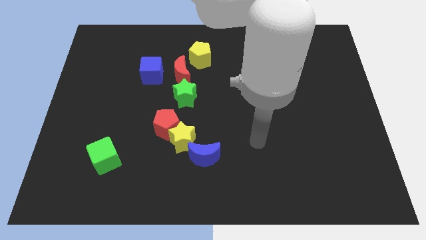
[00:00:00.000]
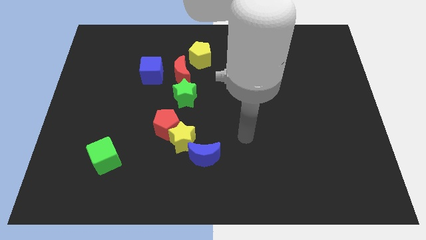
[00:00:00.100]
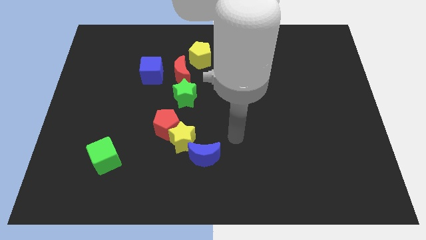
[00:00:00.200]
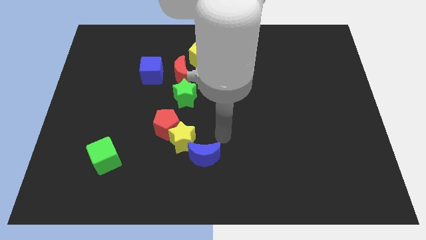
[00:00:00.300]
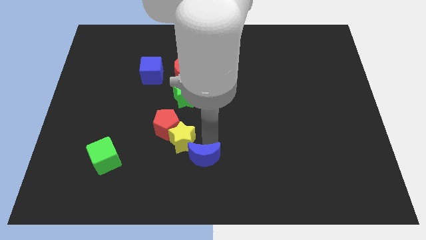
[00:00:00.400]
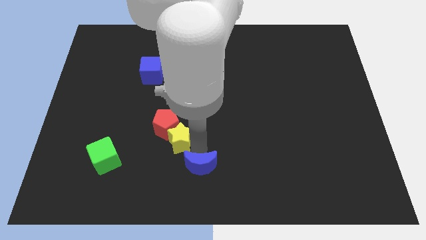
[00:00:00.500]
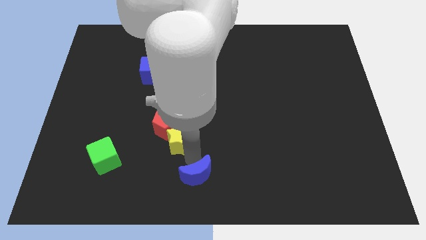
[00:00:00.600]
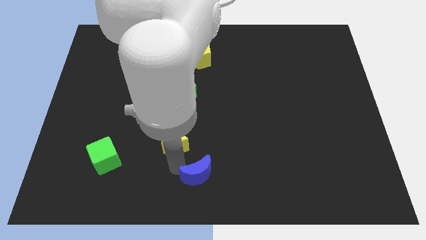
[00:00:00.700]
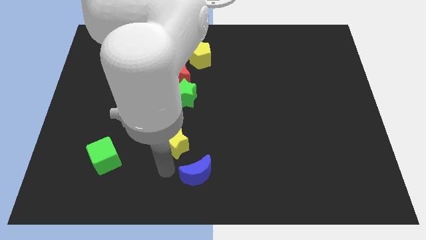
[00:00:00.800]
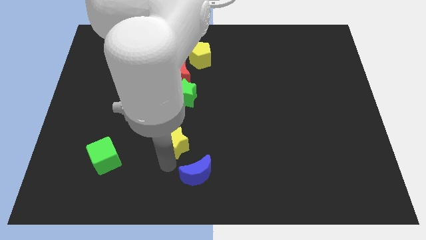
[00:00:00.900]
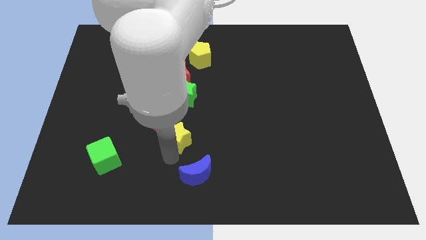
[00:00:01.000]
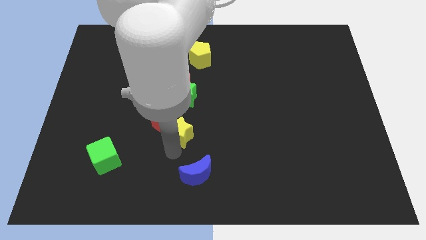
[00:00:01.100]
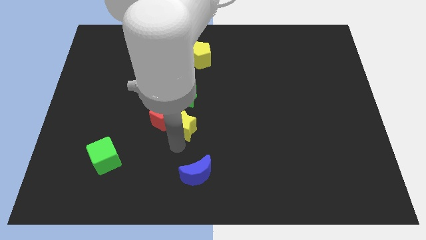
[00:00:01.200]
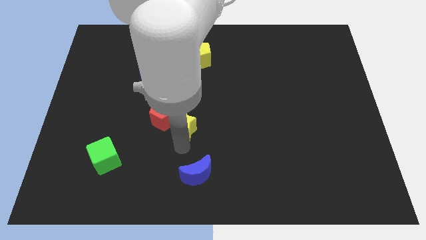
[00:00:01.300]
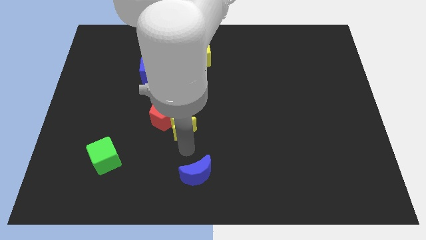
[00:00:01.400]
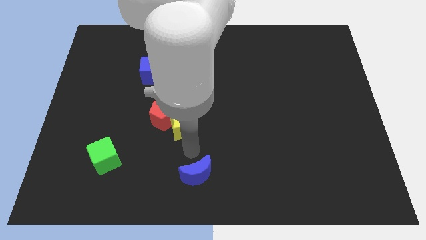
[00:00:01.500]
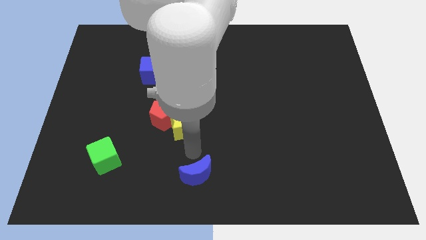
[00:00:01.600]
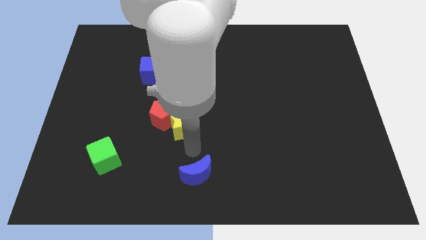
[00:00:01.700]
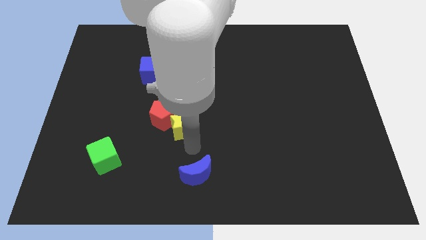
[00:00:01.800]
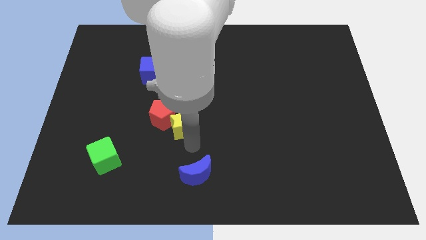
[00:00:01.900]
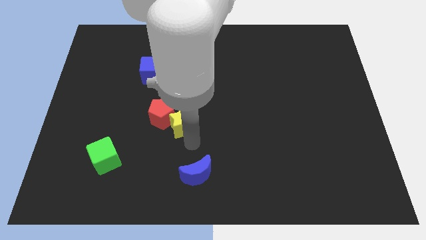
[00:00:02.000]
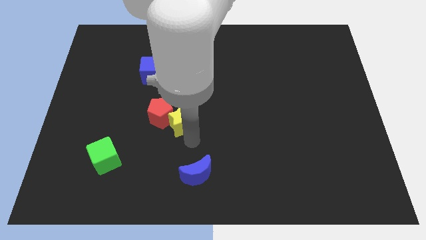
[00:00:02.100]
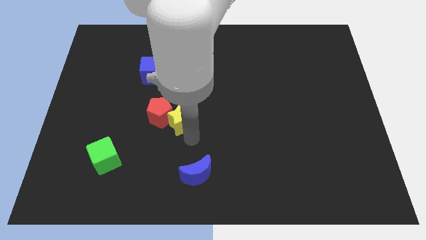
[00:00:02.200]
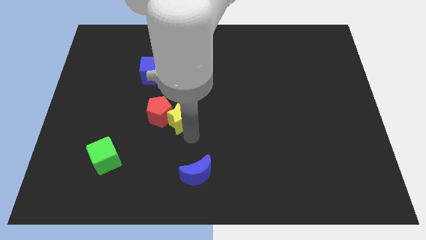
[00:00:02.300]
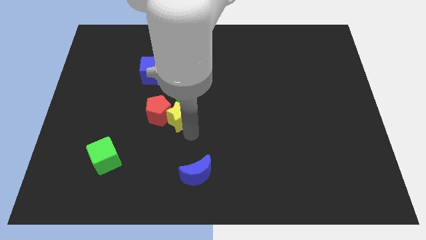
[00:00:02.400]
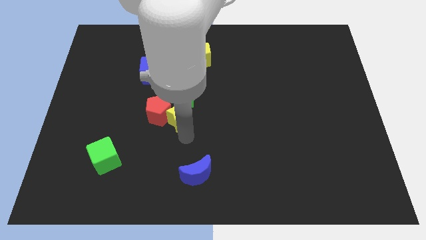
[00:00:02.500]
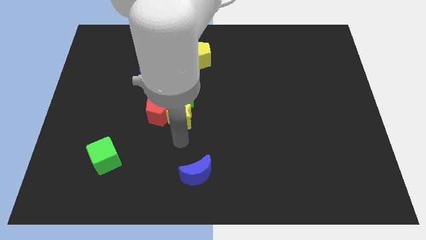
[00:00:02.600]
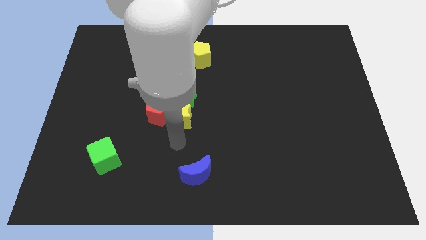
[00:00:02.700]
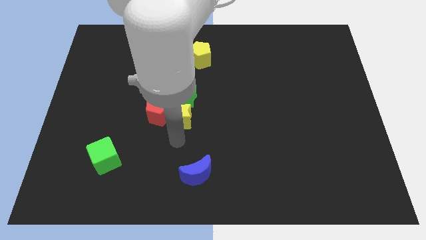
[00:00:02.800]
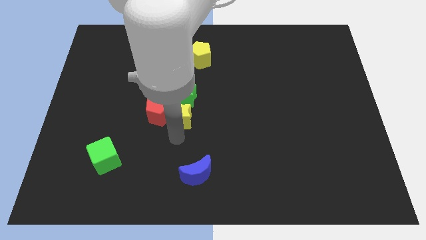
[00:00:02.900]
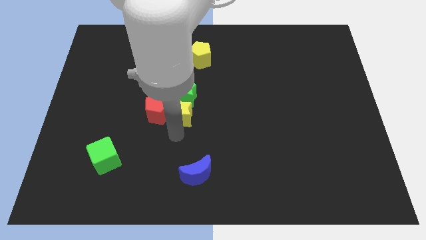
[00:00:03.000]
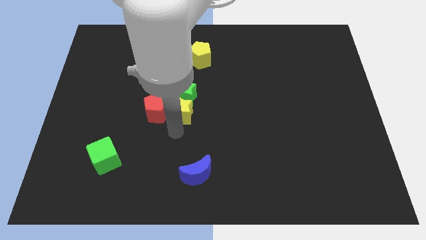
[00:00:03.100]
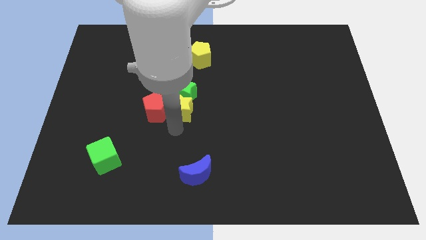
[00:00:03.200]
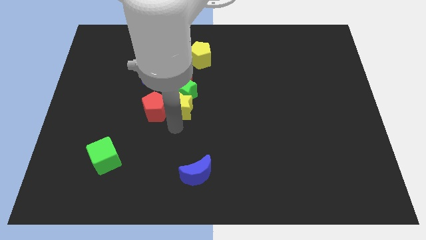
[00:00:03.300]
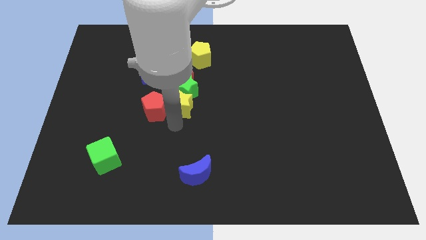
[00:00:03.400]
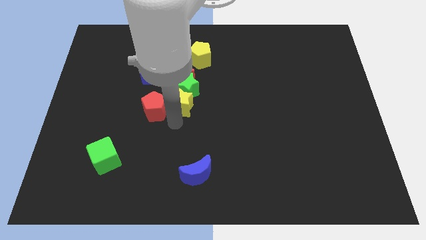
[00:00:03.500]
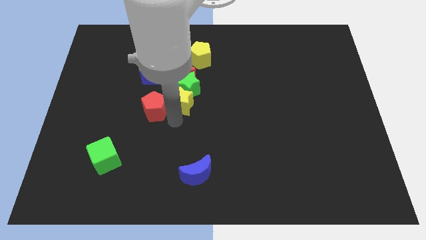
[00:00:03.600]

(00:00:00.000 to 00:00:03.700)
separate the yellow star from the red pentagon and blue moon

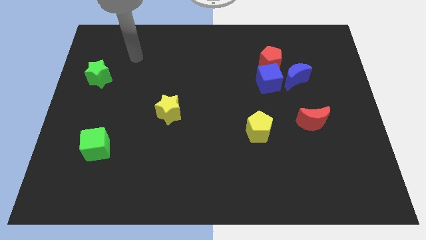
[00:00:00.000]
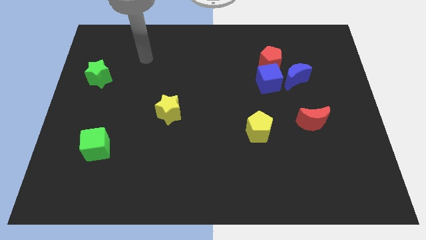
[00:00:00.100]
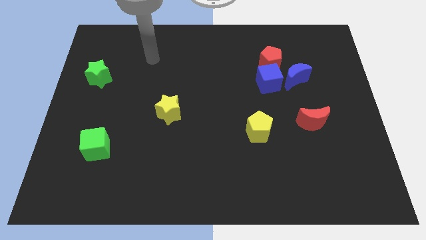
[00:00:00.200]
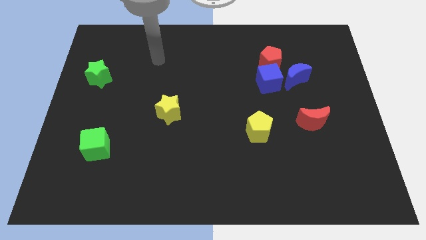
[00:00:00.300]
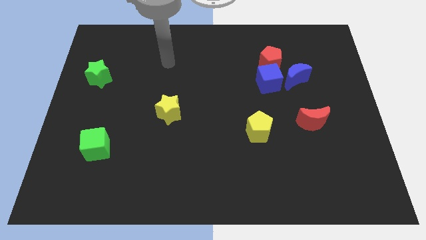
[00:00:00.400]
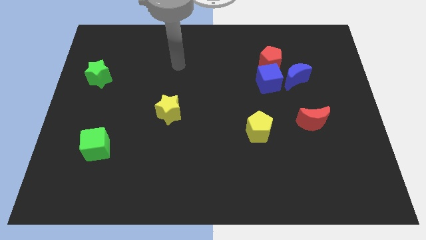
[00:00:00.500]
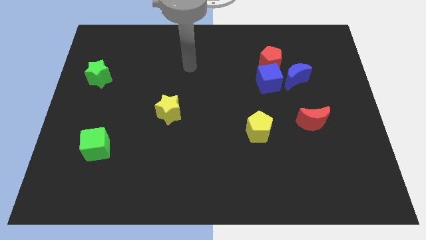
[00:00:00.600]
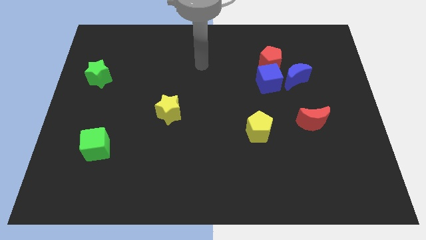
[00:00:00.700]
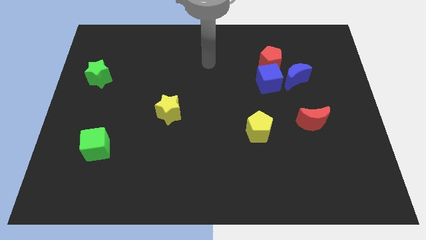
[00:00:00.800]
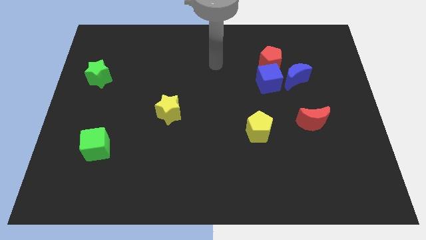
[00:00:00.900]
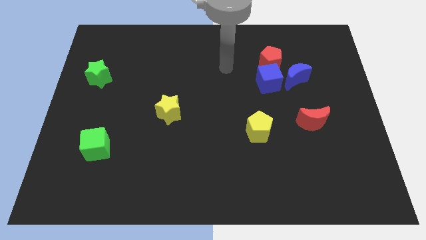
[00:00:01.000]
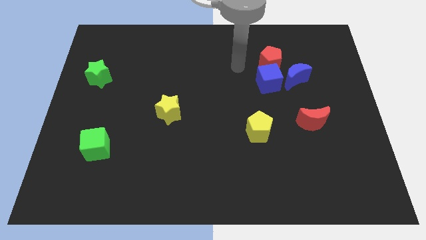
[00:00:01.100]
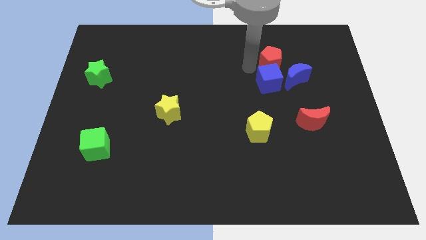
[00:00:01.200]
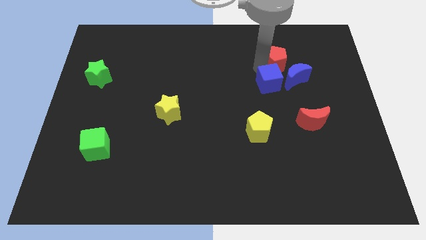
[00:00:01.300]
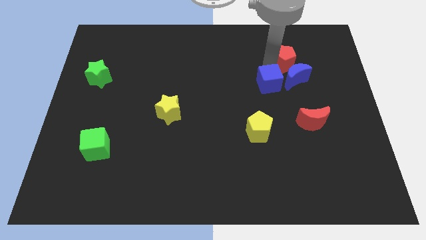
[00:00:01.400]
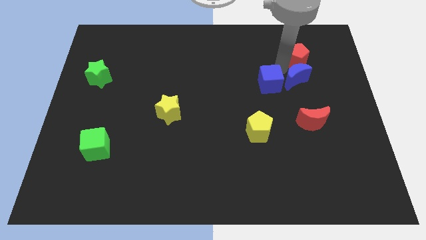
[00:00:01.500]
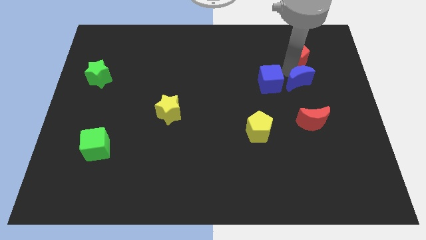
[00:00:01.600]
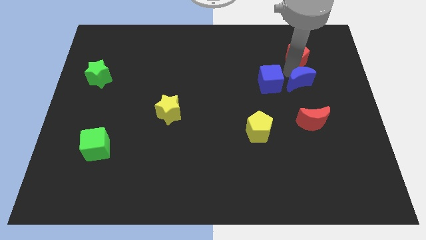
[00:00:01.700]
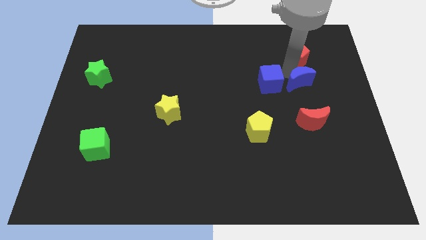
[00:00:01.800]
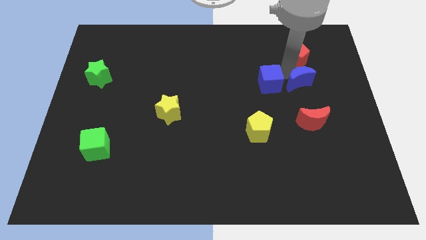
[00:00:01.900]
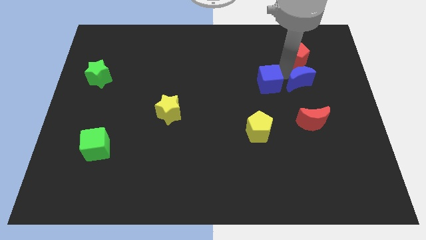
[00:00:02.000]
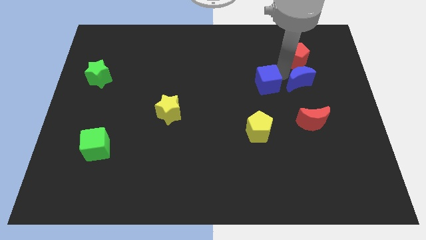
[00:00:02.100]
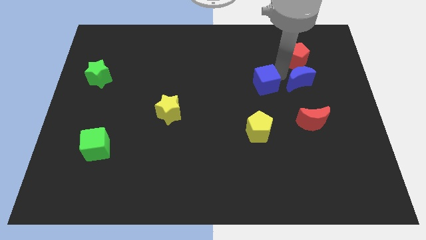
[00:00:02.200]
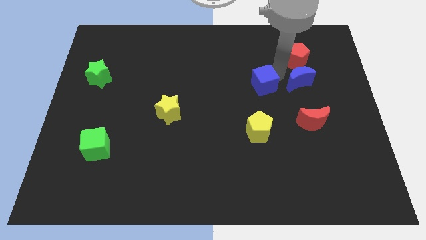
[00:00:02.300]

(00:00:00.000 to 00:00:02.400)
separate the blue cube from the red pentagon and blue moon

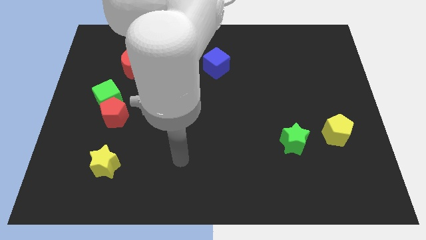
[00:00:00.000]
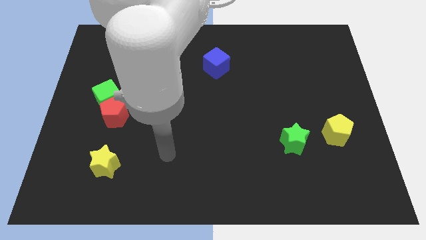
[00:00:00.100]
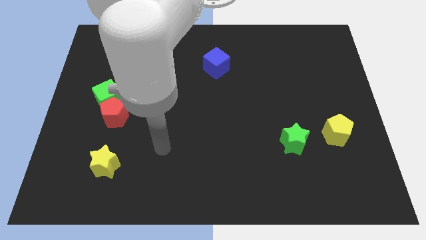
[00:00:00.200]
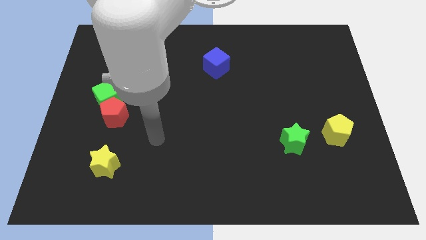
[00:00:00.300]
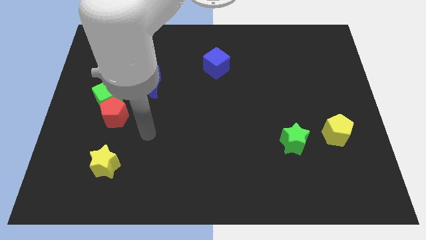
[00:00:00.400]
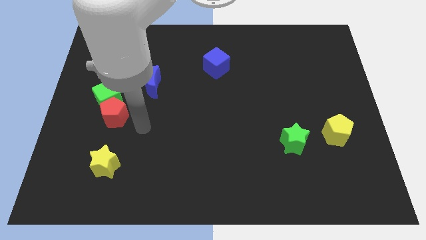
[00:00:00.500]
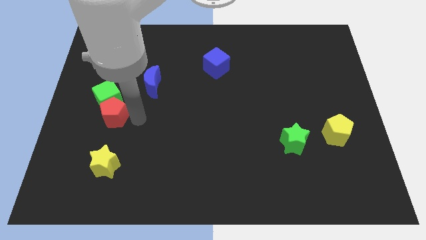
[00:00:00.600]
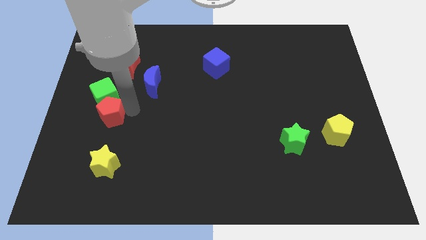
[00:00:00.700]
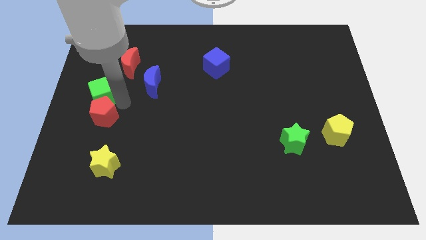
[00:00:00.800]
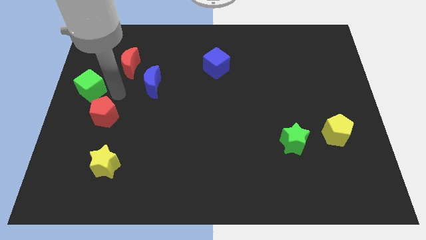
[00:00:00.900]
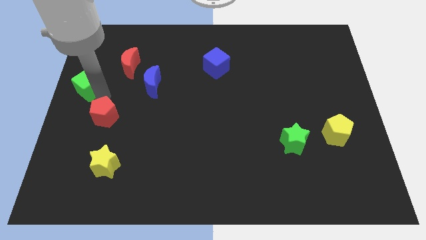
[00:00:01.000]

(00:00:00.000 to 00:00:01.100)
pull the red pentagon apart from the green cube

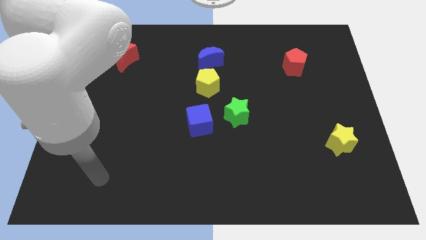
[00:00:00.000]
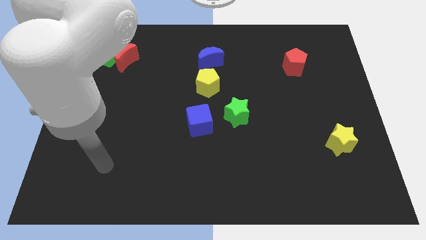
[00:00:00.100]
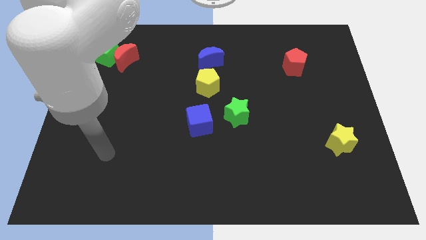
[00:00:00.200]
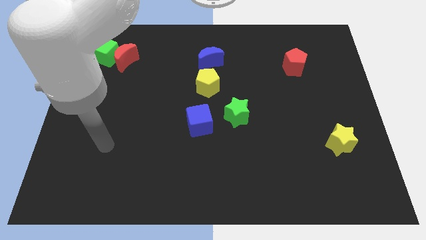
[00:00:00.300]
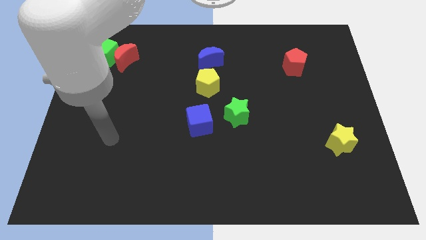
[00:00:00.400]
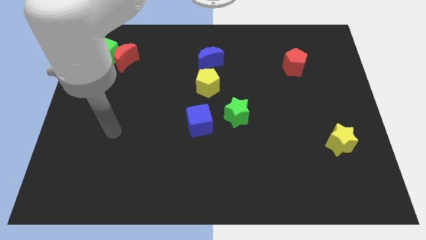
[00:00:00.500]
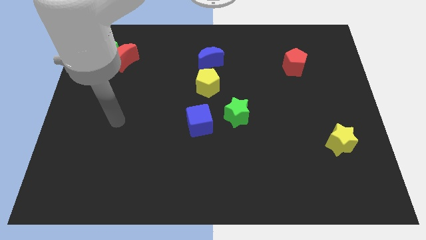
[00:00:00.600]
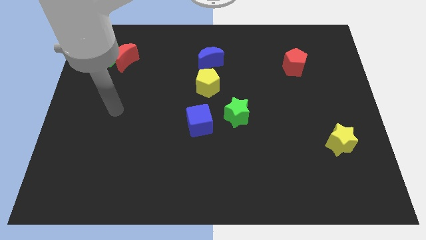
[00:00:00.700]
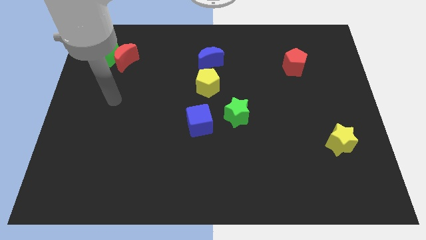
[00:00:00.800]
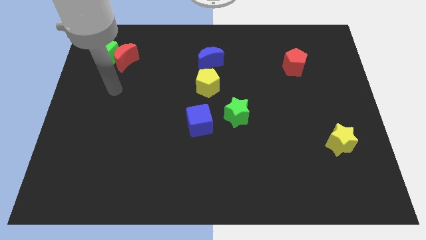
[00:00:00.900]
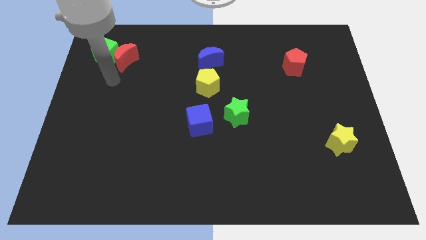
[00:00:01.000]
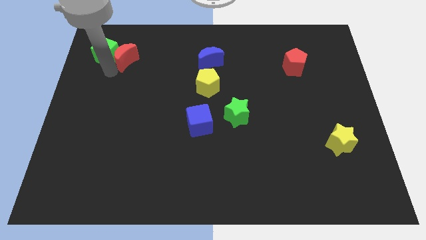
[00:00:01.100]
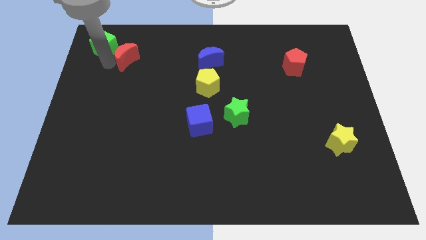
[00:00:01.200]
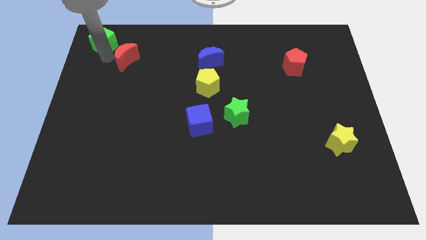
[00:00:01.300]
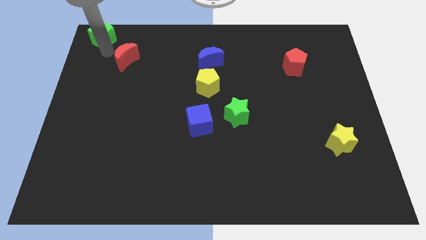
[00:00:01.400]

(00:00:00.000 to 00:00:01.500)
separate the red moon from the green cube

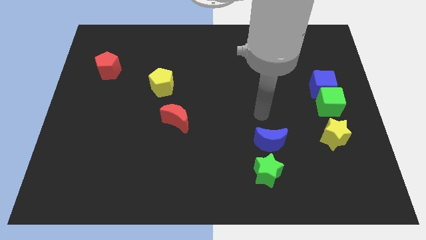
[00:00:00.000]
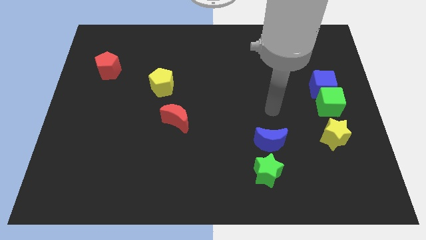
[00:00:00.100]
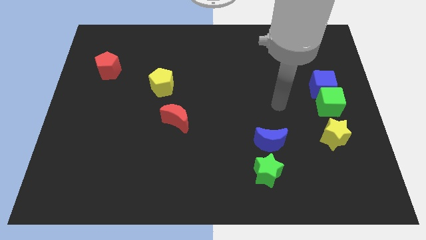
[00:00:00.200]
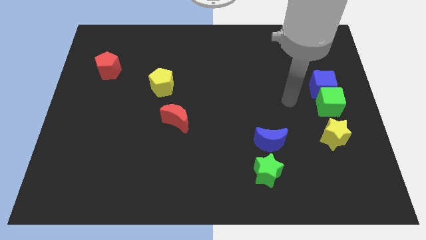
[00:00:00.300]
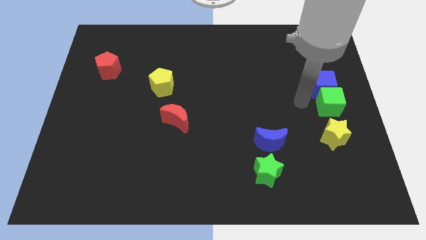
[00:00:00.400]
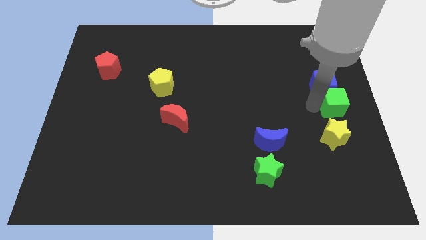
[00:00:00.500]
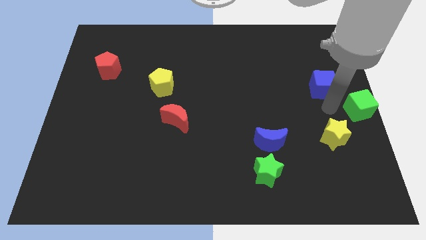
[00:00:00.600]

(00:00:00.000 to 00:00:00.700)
separate the blue cube from the green cube
